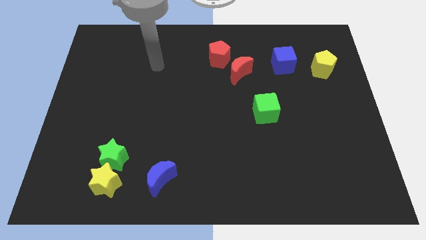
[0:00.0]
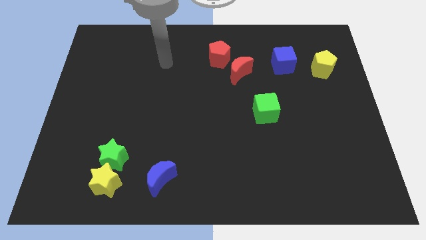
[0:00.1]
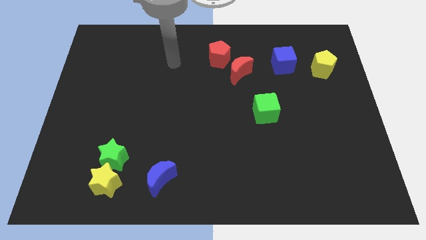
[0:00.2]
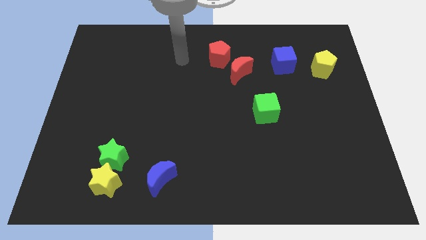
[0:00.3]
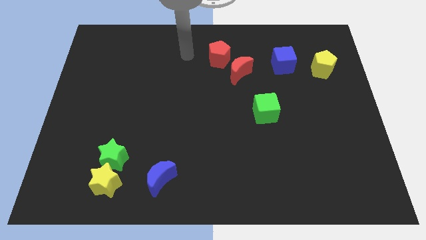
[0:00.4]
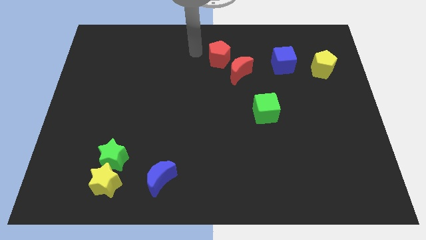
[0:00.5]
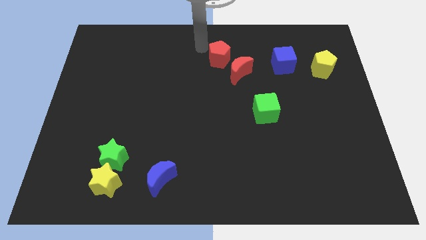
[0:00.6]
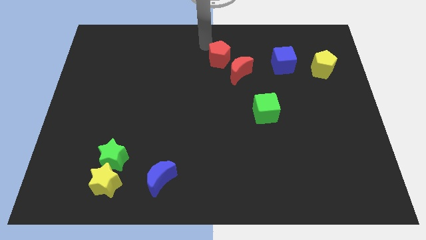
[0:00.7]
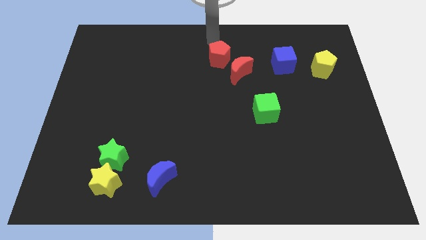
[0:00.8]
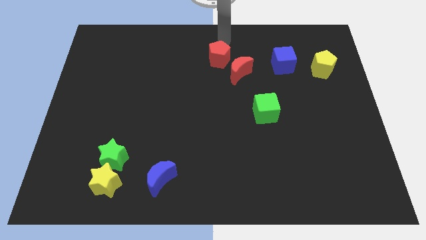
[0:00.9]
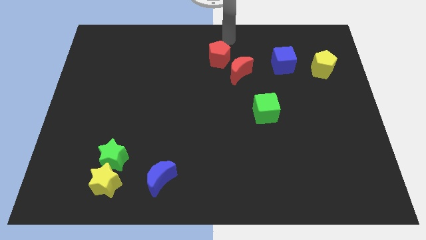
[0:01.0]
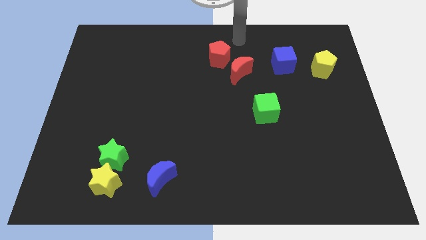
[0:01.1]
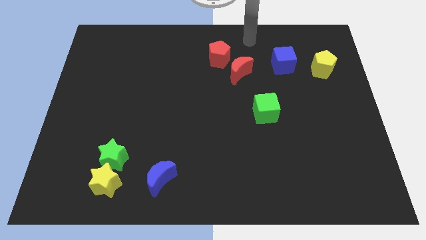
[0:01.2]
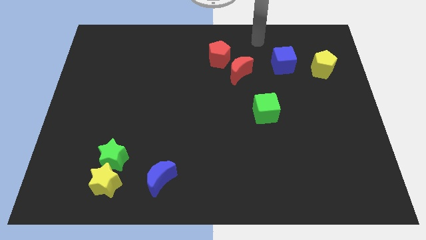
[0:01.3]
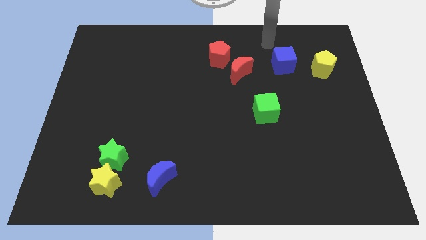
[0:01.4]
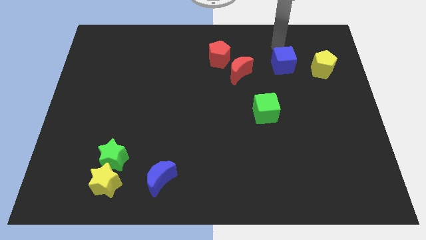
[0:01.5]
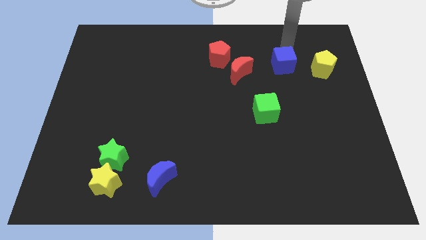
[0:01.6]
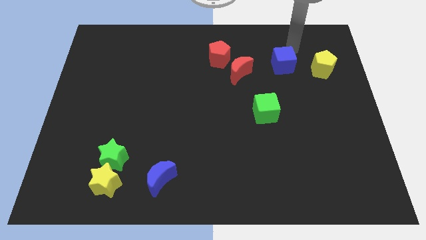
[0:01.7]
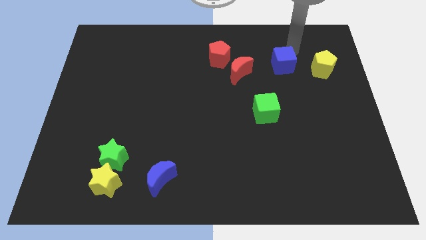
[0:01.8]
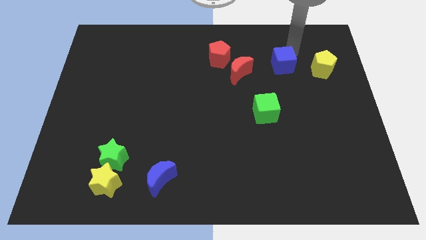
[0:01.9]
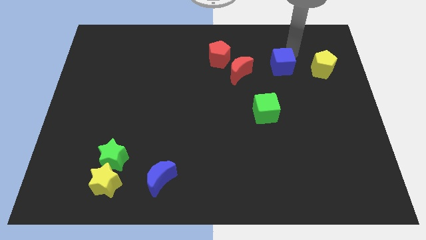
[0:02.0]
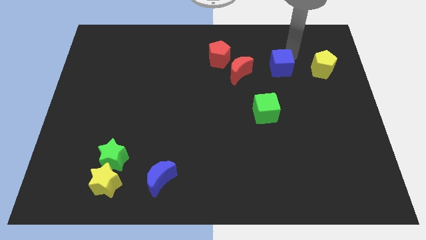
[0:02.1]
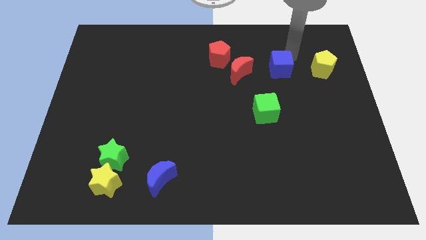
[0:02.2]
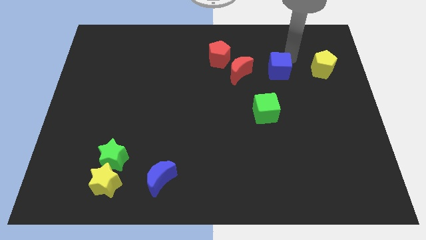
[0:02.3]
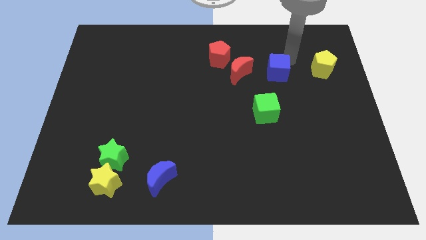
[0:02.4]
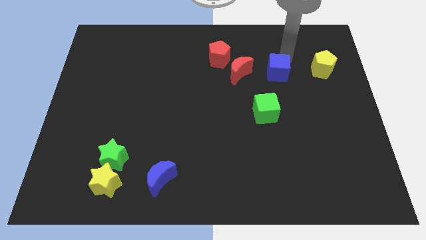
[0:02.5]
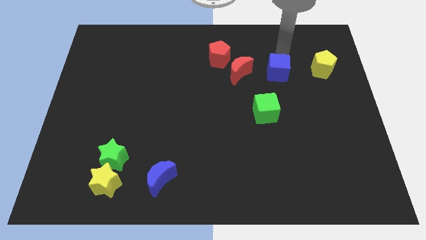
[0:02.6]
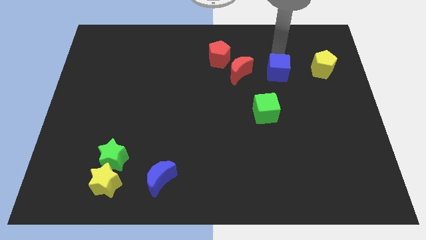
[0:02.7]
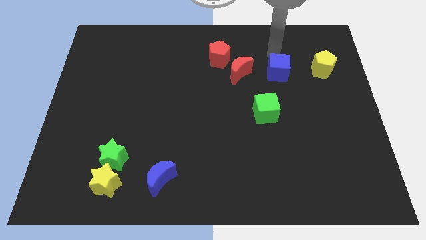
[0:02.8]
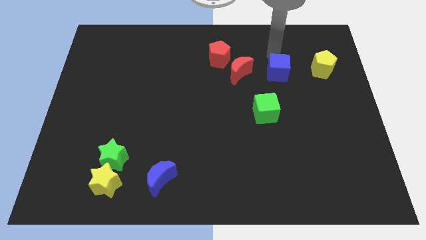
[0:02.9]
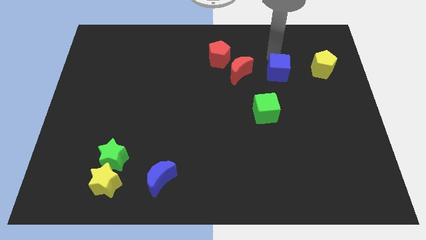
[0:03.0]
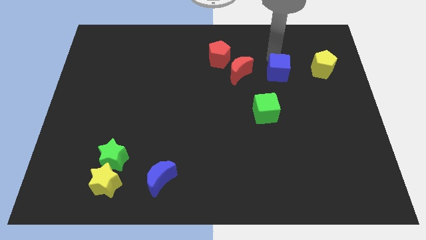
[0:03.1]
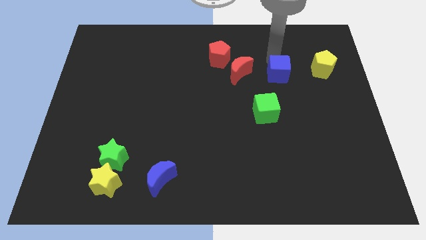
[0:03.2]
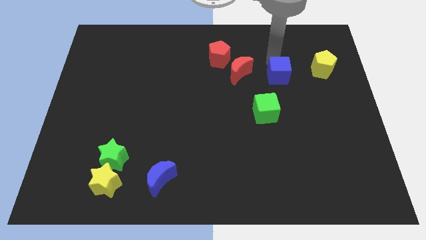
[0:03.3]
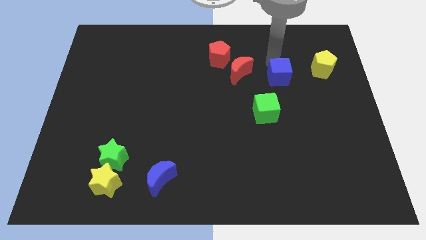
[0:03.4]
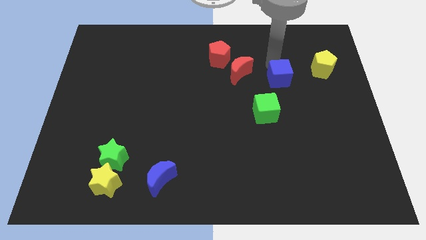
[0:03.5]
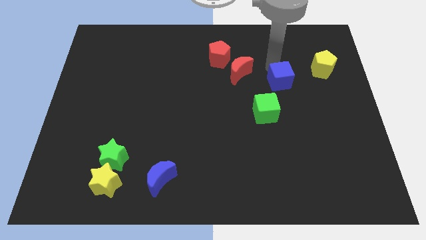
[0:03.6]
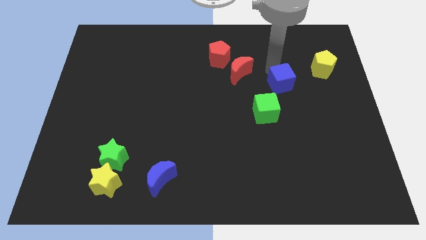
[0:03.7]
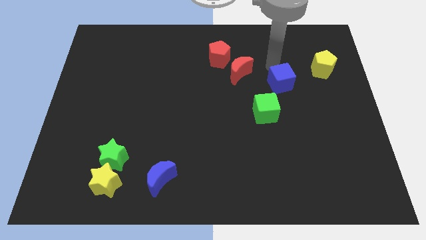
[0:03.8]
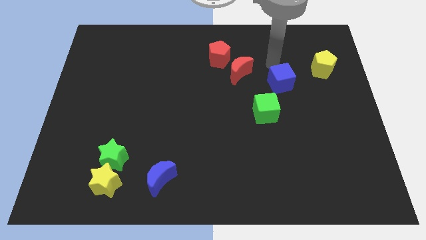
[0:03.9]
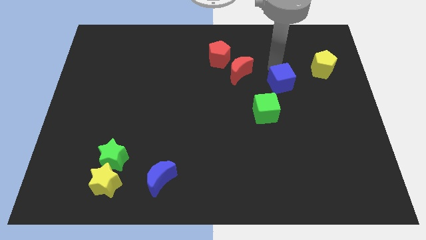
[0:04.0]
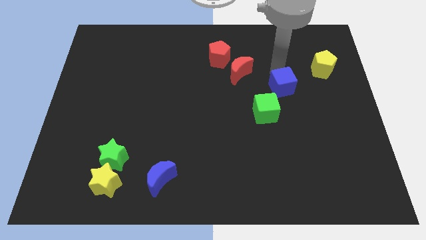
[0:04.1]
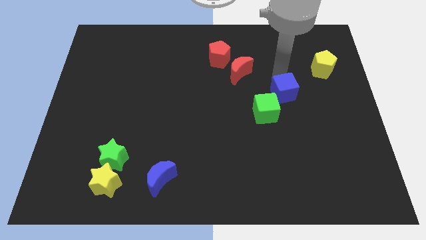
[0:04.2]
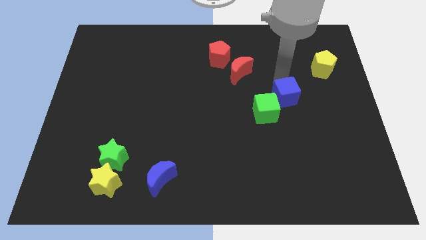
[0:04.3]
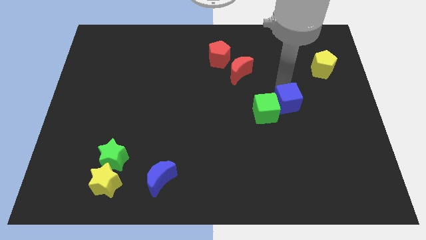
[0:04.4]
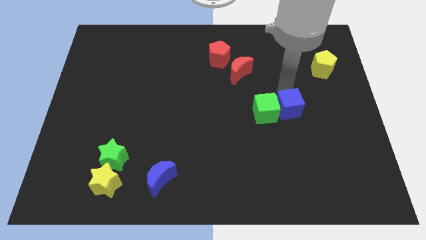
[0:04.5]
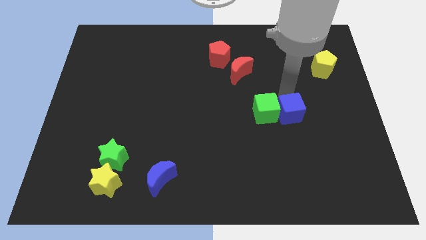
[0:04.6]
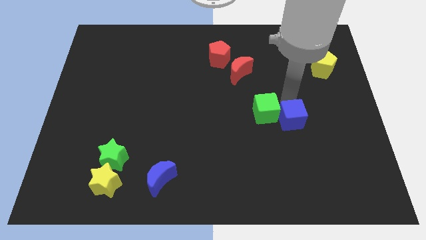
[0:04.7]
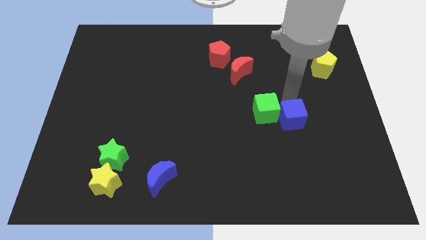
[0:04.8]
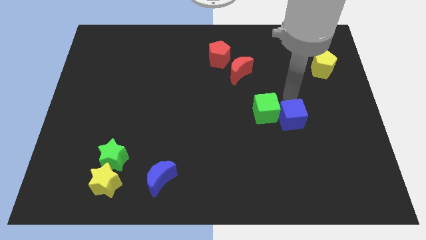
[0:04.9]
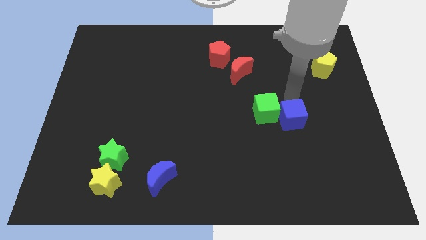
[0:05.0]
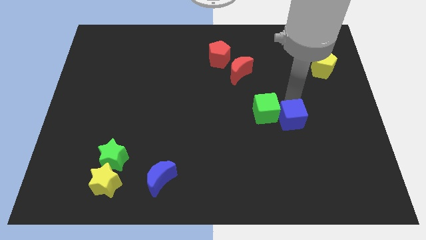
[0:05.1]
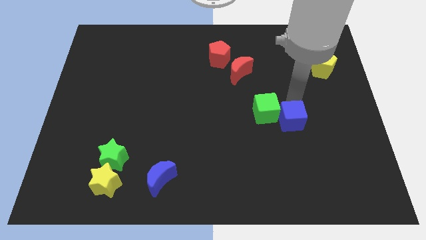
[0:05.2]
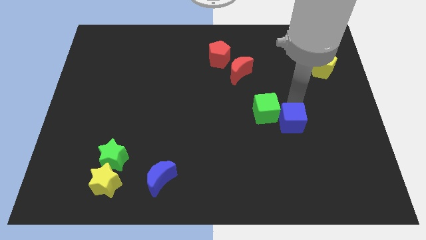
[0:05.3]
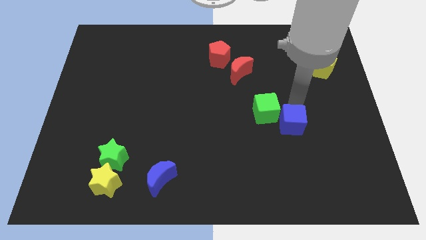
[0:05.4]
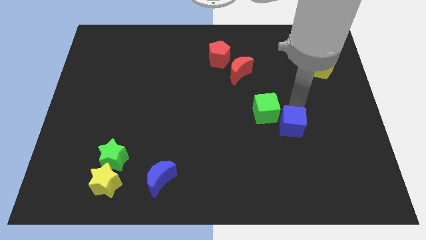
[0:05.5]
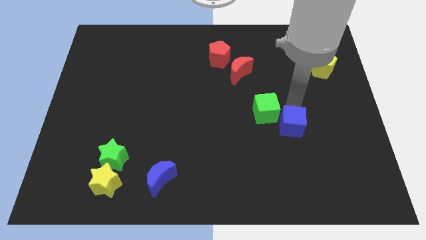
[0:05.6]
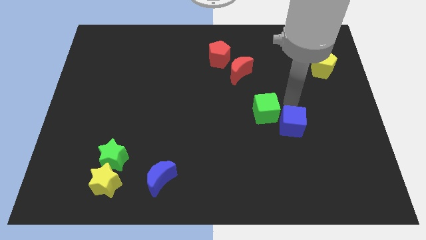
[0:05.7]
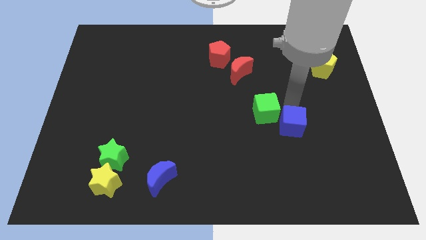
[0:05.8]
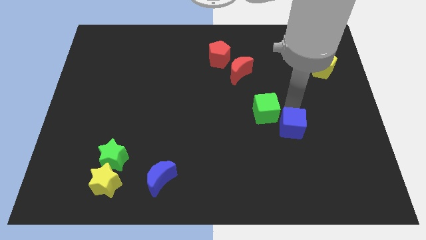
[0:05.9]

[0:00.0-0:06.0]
move the blue cube down

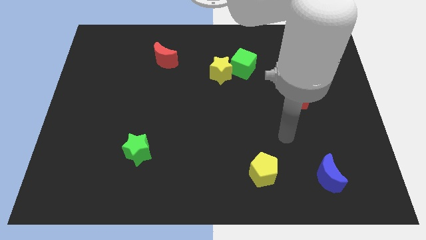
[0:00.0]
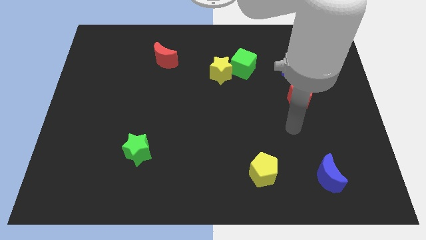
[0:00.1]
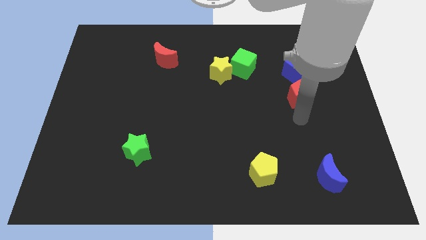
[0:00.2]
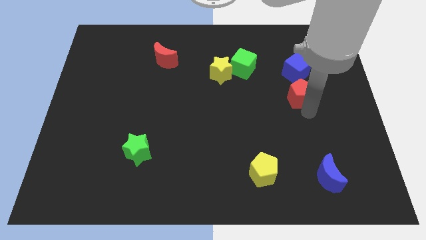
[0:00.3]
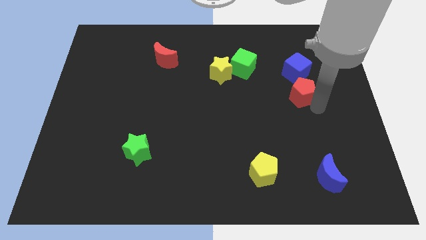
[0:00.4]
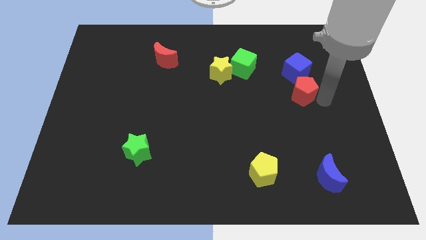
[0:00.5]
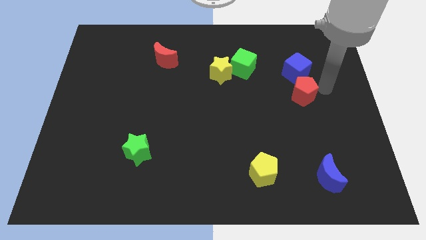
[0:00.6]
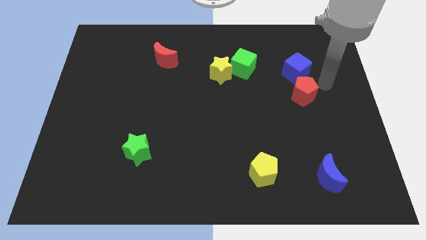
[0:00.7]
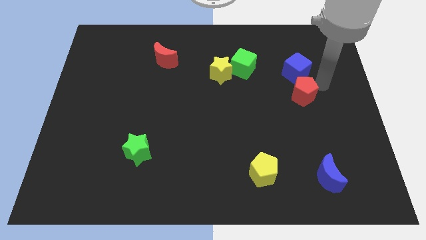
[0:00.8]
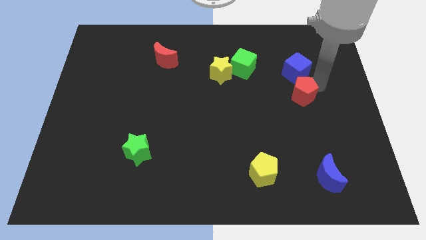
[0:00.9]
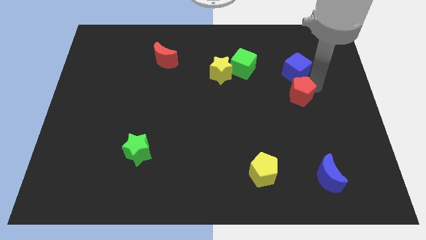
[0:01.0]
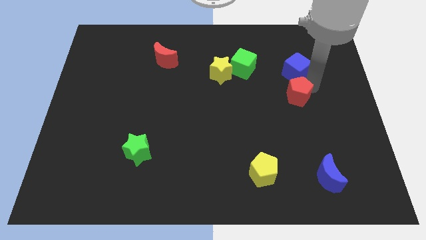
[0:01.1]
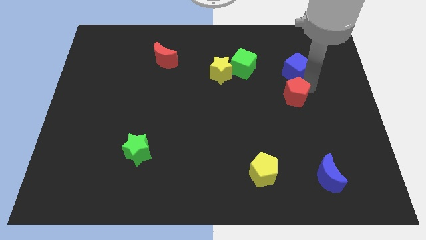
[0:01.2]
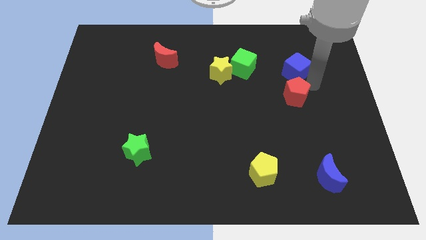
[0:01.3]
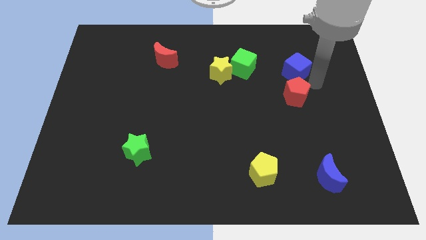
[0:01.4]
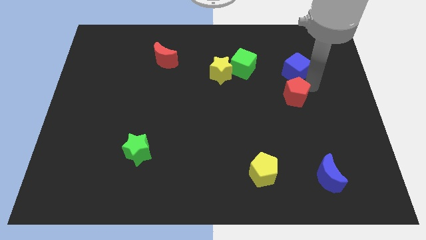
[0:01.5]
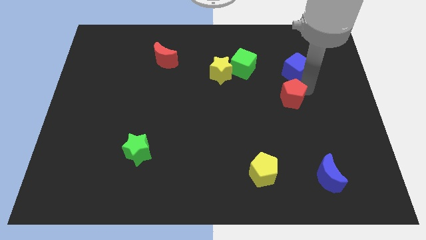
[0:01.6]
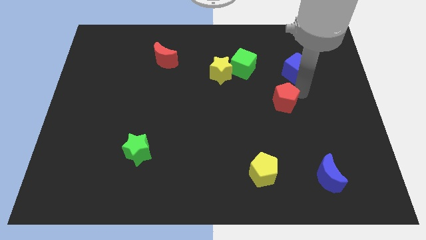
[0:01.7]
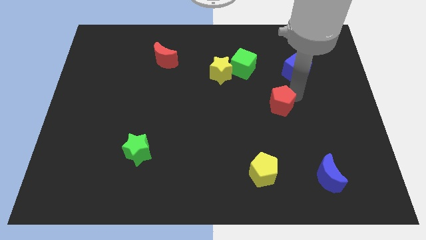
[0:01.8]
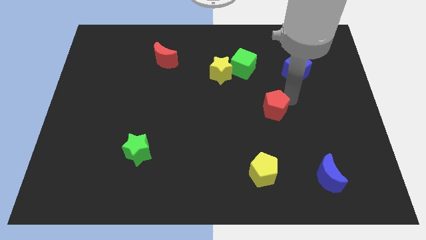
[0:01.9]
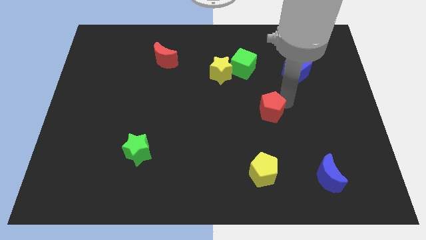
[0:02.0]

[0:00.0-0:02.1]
slightly move the red pentagon downwards and then to the left

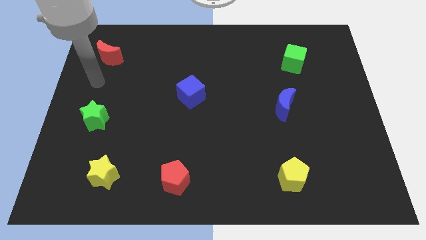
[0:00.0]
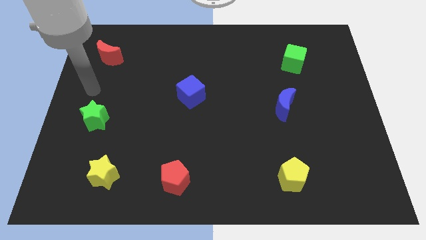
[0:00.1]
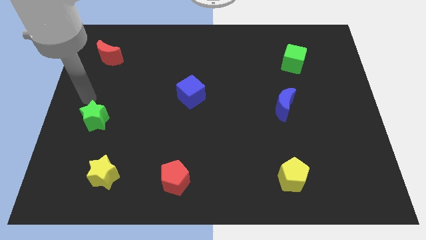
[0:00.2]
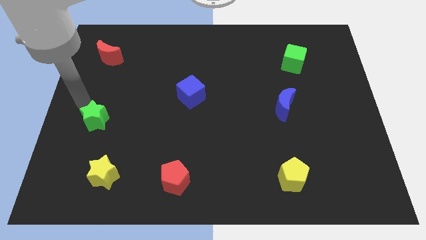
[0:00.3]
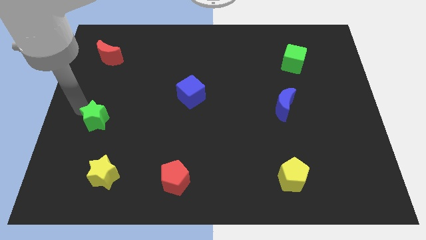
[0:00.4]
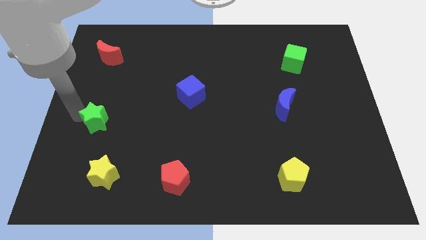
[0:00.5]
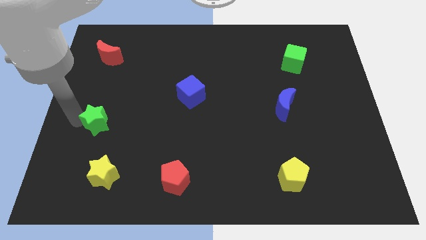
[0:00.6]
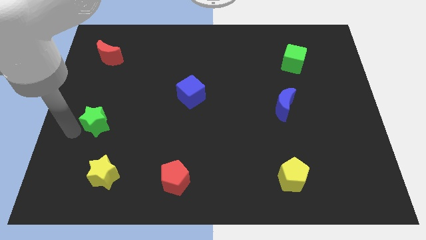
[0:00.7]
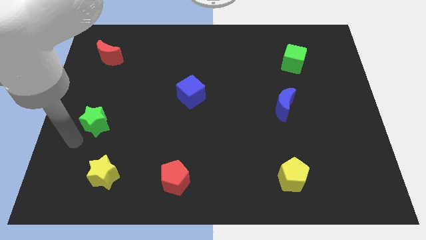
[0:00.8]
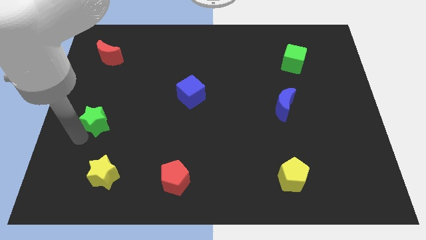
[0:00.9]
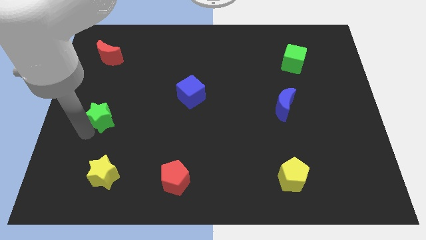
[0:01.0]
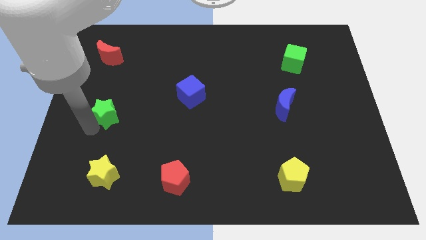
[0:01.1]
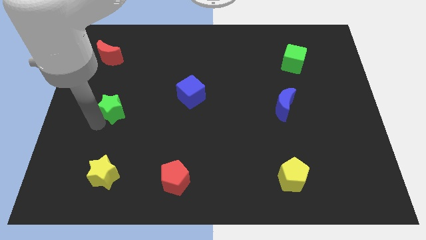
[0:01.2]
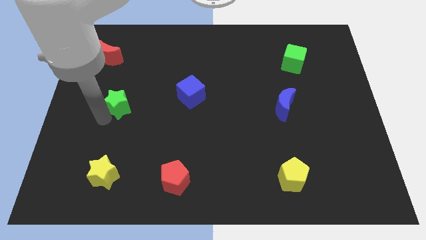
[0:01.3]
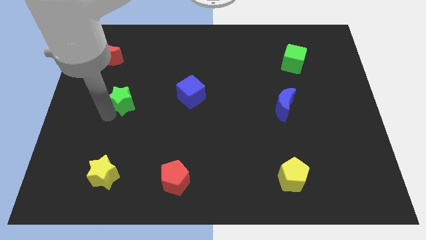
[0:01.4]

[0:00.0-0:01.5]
push the green star upwards and right a little bit
